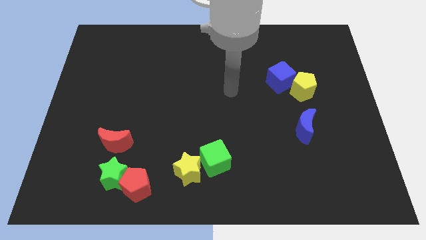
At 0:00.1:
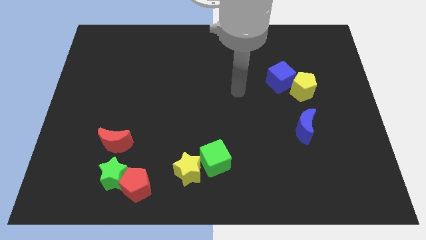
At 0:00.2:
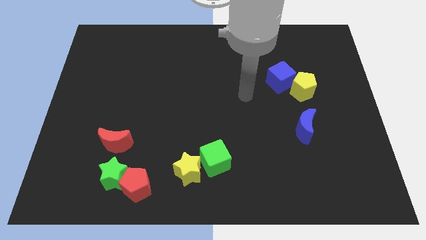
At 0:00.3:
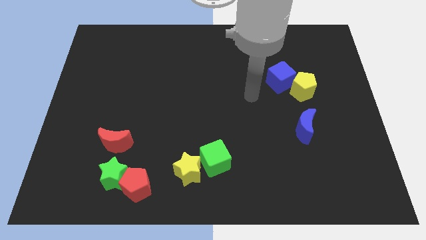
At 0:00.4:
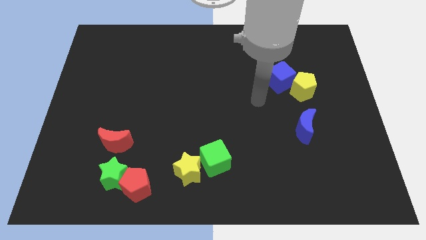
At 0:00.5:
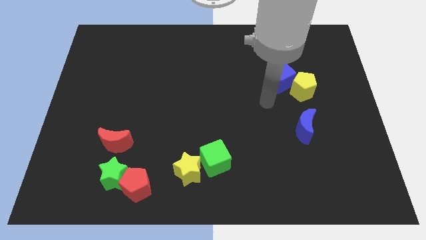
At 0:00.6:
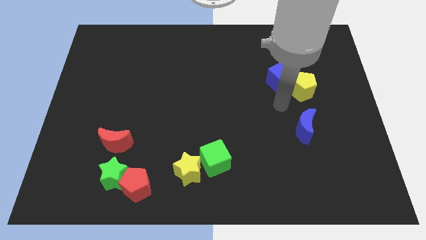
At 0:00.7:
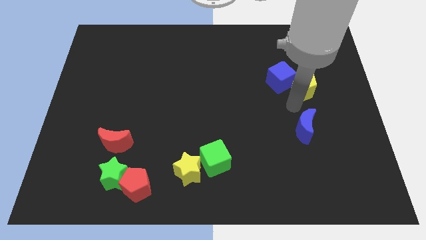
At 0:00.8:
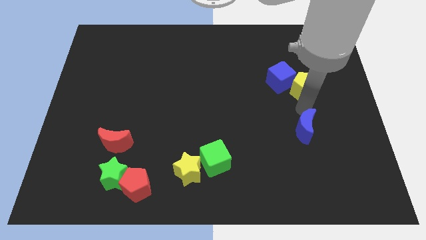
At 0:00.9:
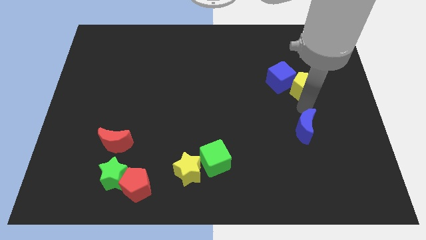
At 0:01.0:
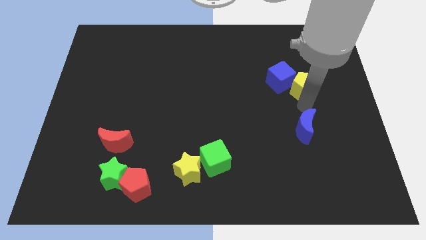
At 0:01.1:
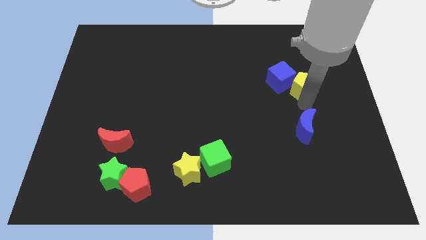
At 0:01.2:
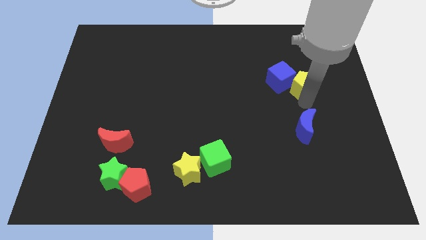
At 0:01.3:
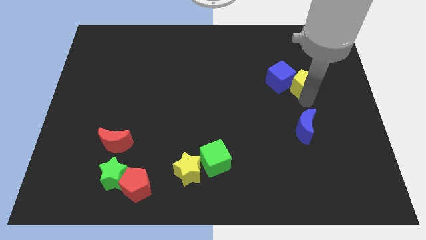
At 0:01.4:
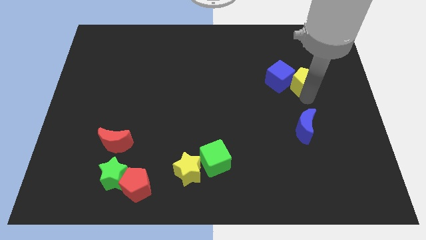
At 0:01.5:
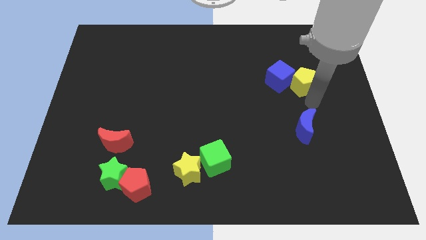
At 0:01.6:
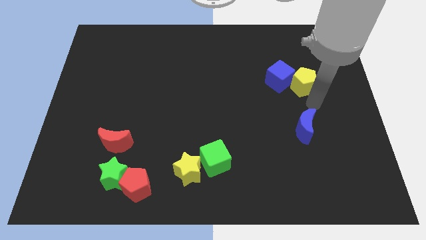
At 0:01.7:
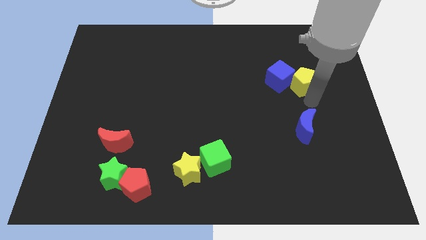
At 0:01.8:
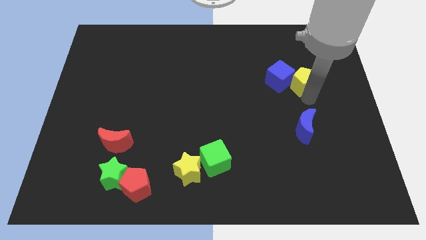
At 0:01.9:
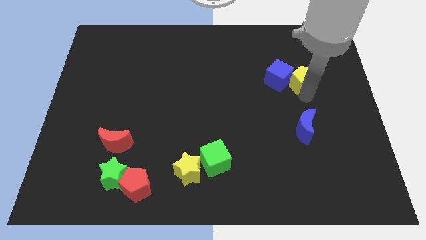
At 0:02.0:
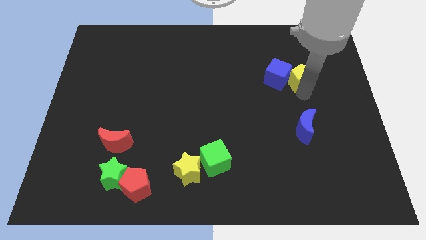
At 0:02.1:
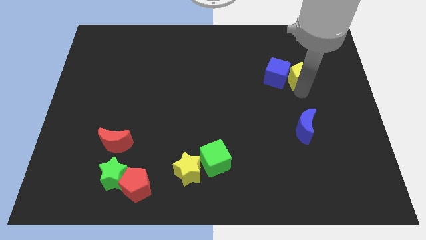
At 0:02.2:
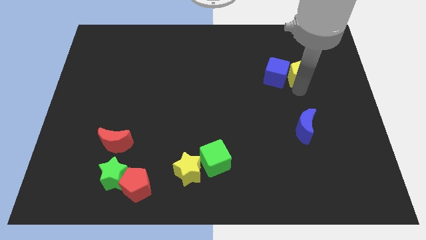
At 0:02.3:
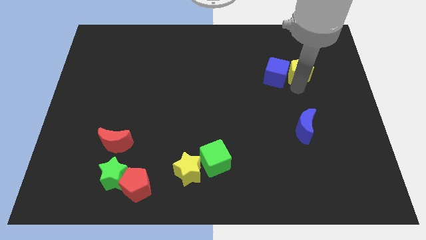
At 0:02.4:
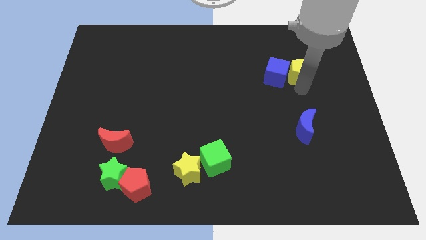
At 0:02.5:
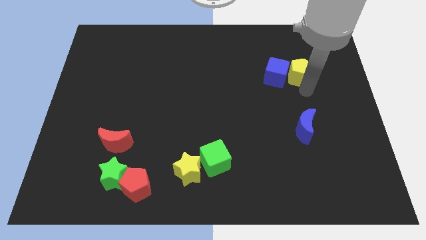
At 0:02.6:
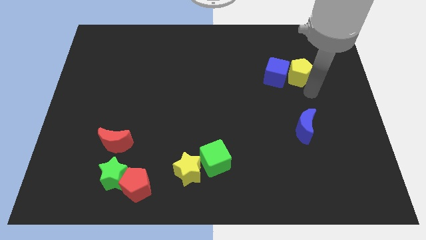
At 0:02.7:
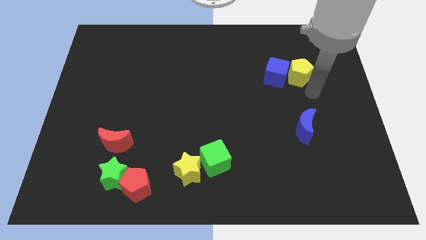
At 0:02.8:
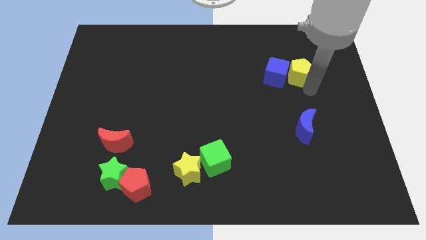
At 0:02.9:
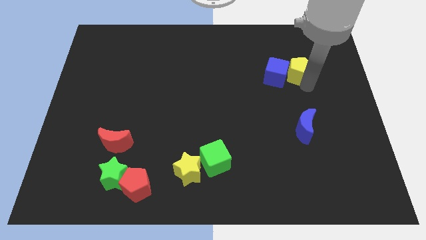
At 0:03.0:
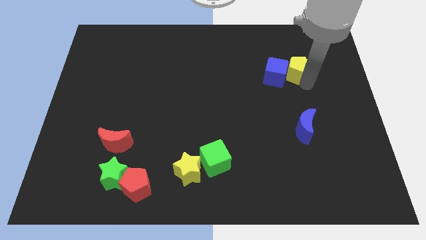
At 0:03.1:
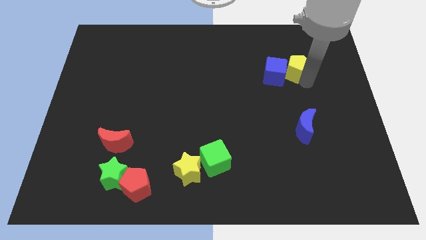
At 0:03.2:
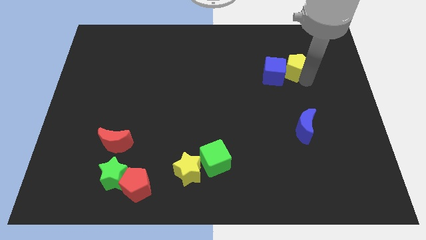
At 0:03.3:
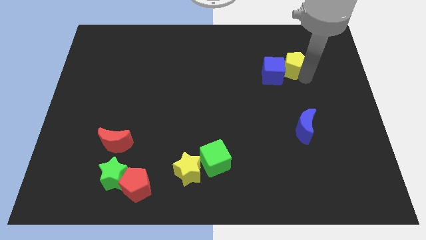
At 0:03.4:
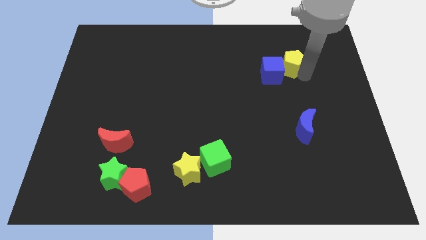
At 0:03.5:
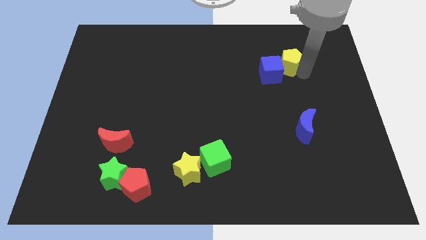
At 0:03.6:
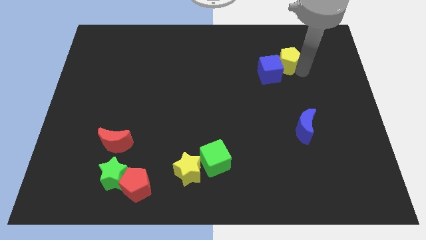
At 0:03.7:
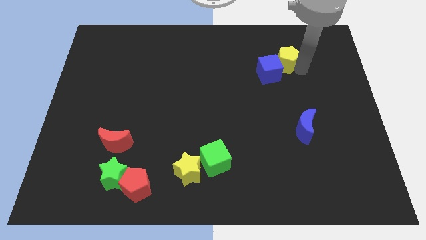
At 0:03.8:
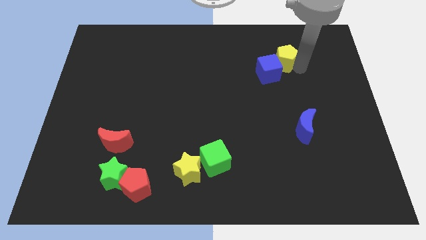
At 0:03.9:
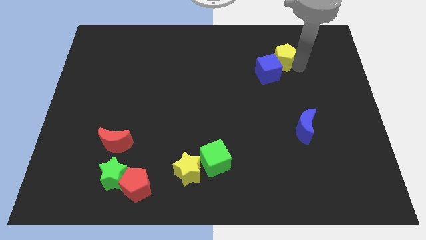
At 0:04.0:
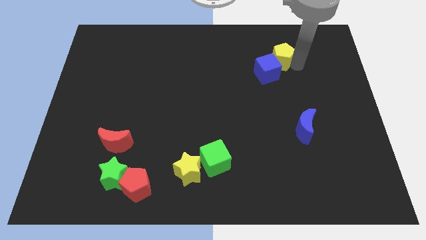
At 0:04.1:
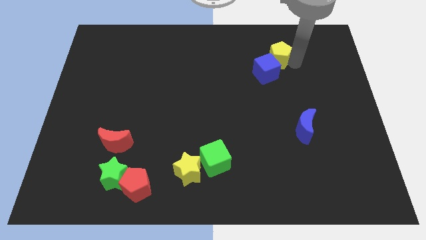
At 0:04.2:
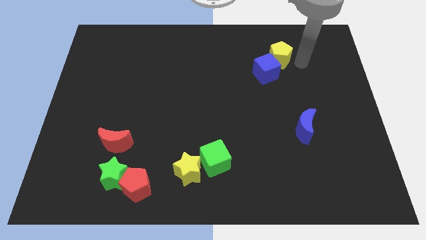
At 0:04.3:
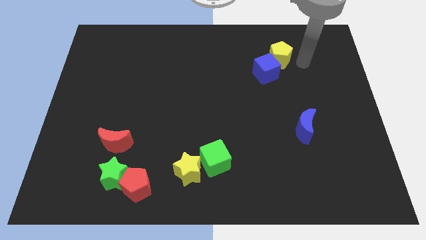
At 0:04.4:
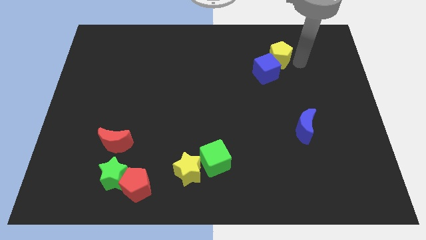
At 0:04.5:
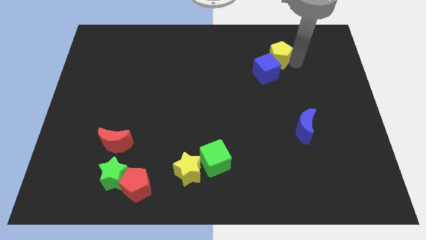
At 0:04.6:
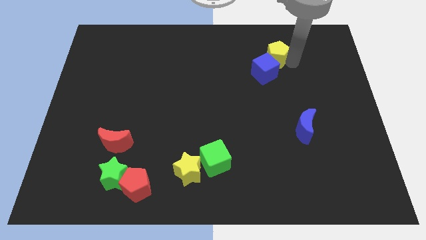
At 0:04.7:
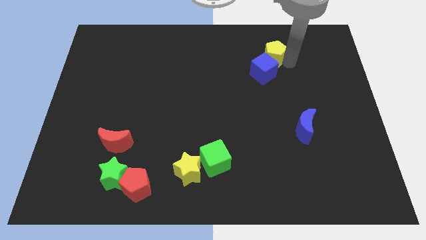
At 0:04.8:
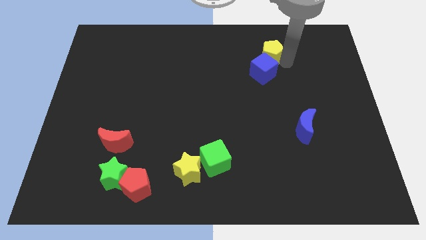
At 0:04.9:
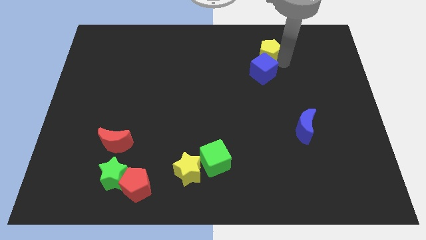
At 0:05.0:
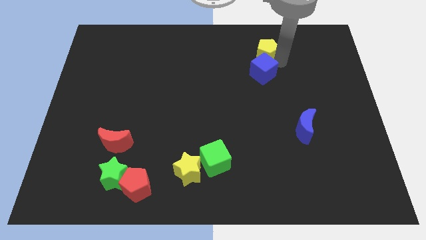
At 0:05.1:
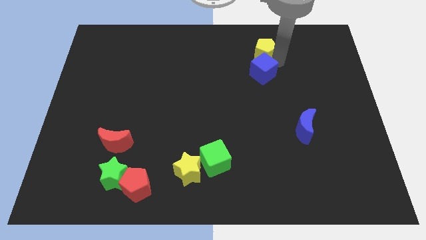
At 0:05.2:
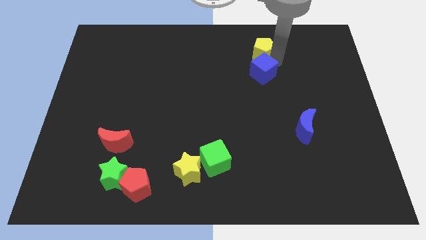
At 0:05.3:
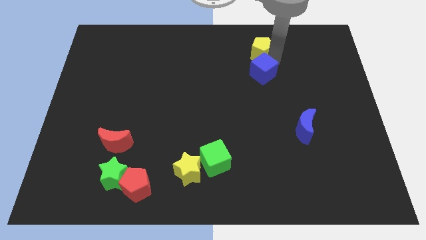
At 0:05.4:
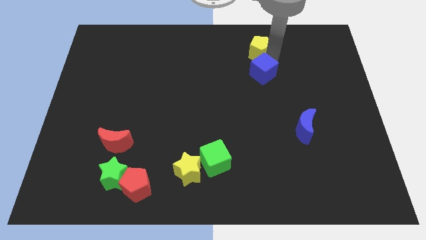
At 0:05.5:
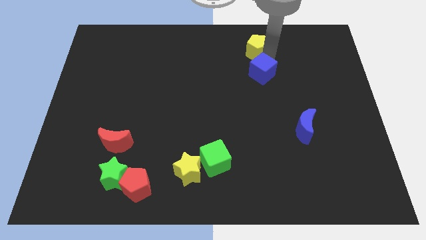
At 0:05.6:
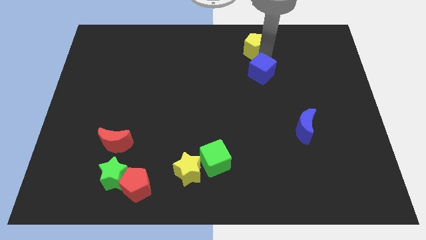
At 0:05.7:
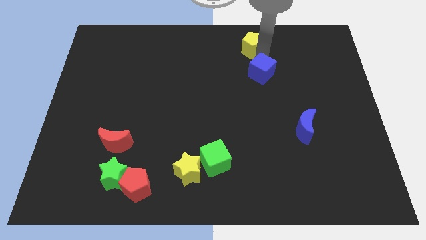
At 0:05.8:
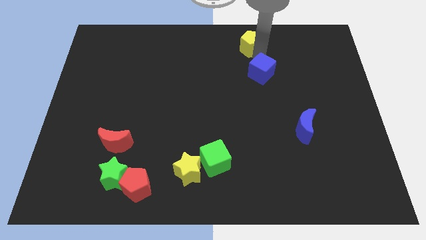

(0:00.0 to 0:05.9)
move the yellow pentagon to the top
